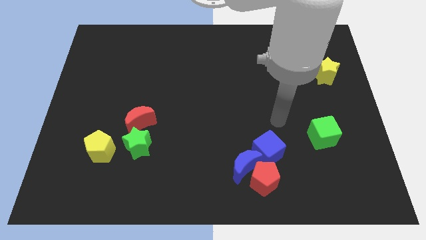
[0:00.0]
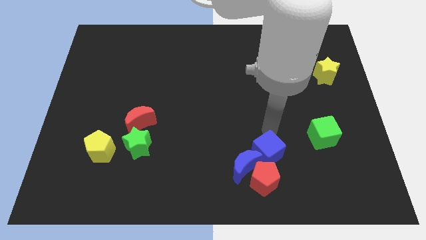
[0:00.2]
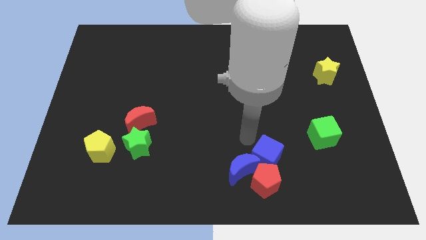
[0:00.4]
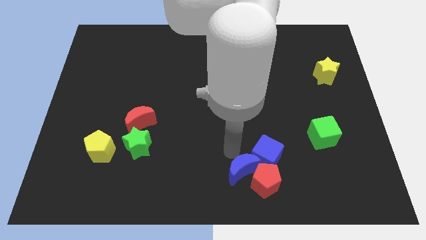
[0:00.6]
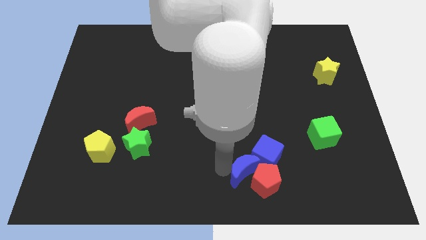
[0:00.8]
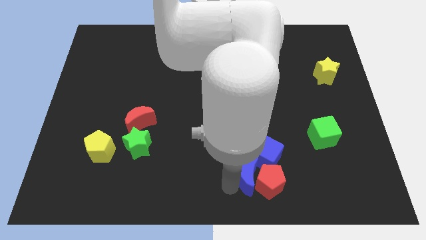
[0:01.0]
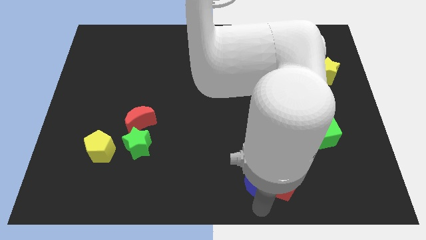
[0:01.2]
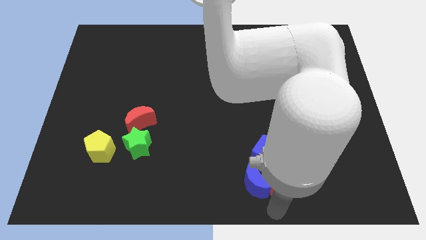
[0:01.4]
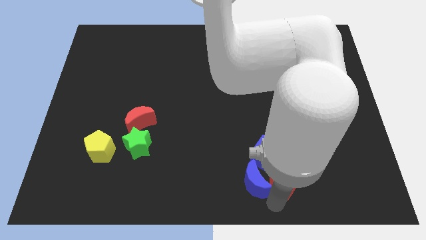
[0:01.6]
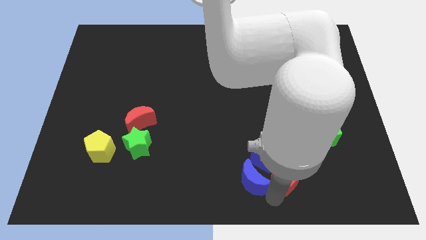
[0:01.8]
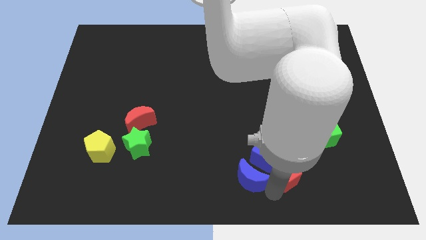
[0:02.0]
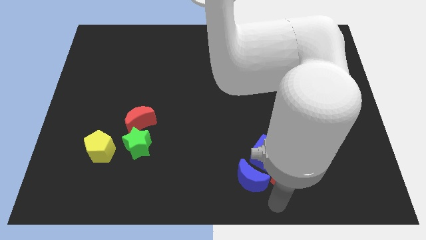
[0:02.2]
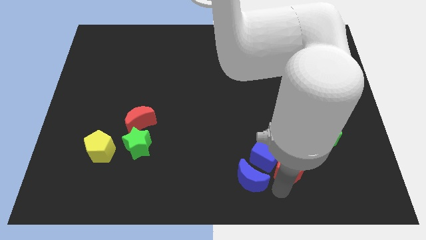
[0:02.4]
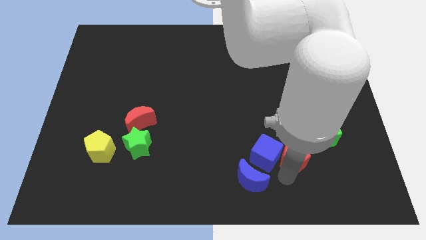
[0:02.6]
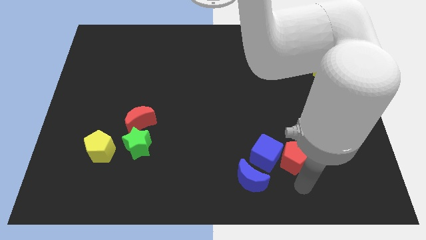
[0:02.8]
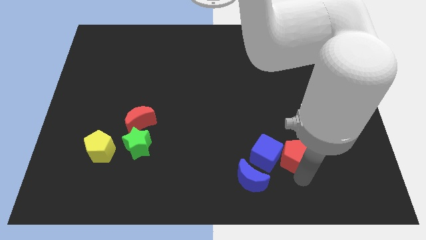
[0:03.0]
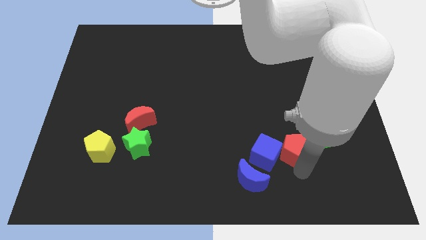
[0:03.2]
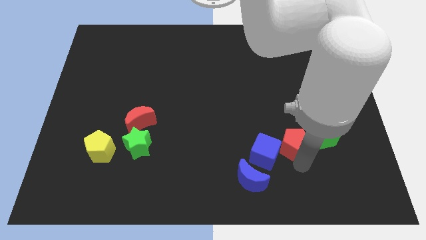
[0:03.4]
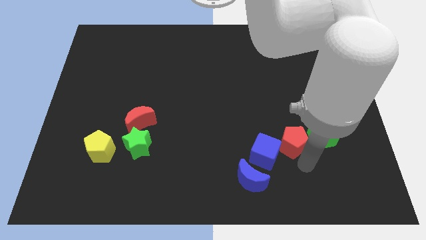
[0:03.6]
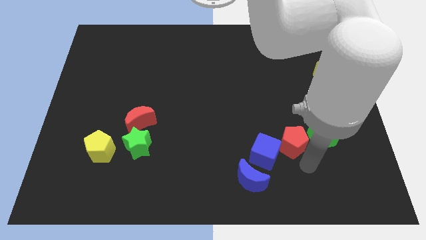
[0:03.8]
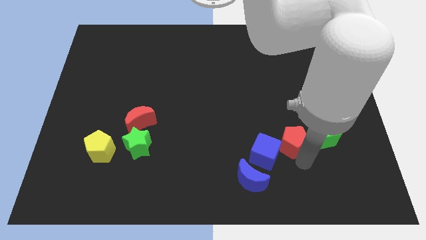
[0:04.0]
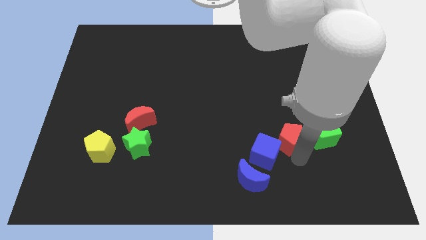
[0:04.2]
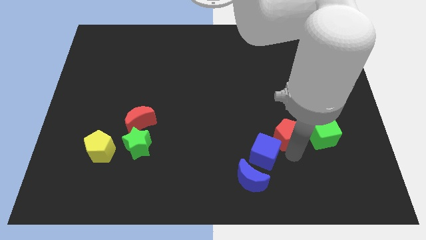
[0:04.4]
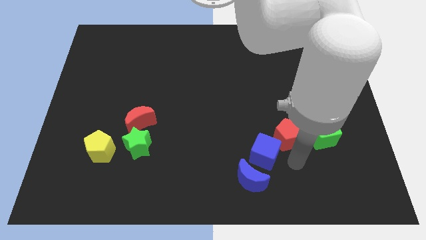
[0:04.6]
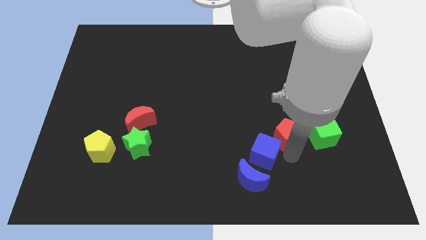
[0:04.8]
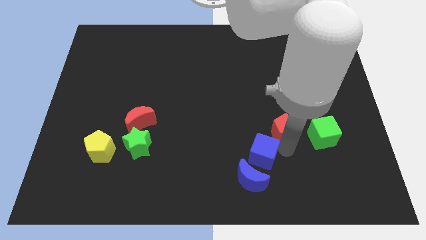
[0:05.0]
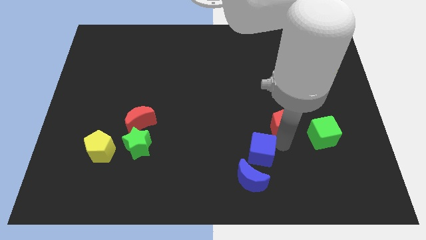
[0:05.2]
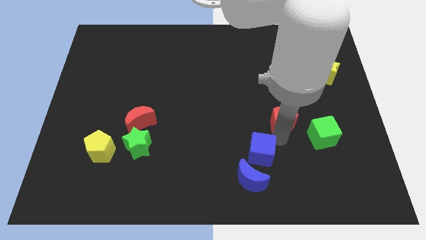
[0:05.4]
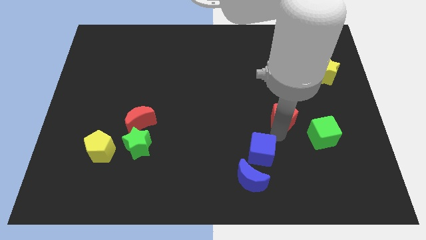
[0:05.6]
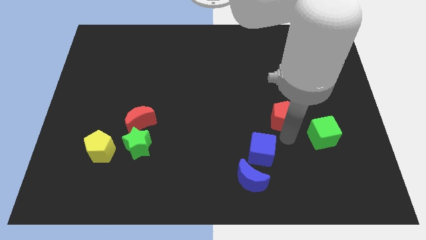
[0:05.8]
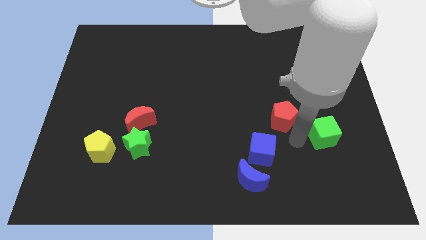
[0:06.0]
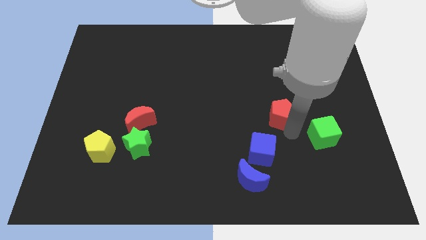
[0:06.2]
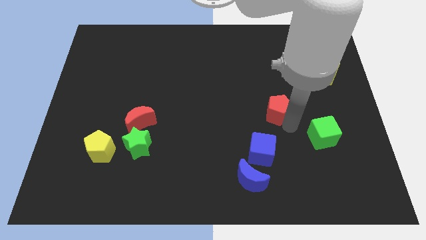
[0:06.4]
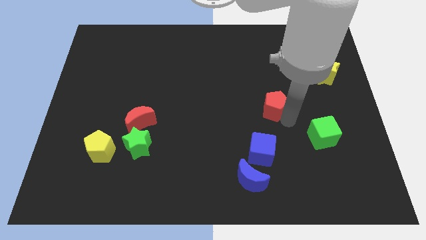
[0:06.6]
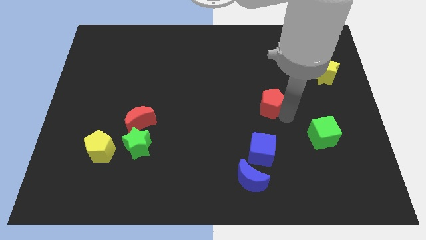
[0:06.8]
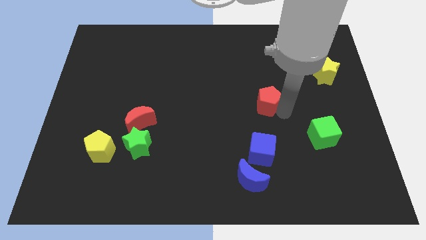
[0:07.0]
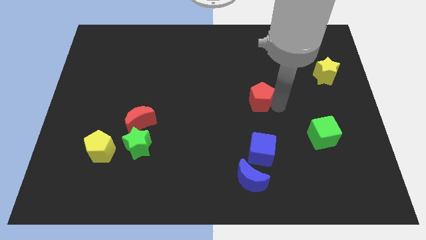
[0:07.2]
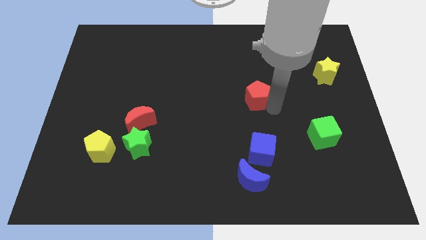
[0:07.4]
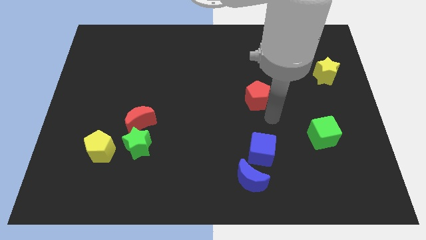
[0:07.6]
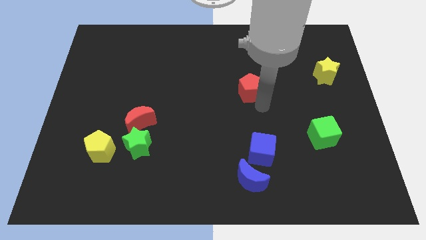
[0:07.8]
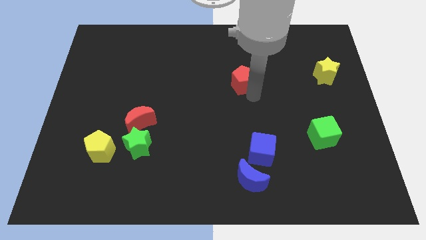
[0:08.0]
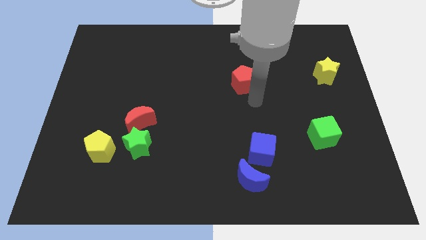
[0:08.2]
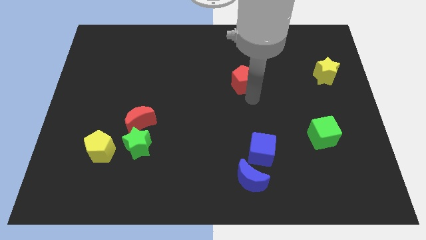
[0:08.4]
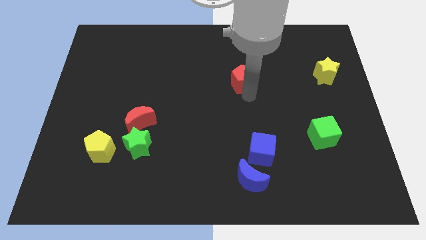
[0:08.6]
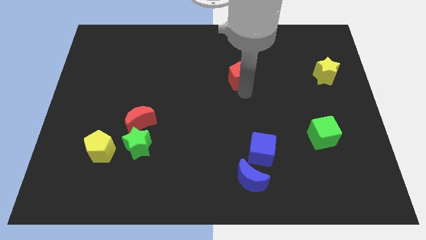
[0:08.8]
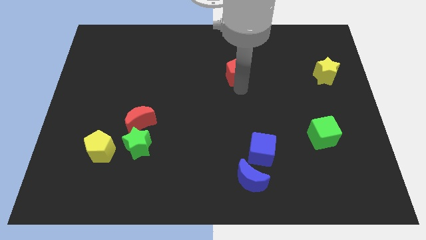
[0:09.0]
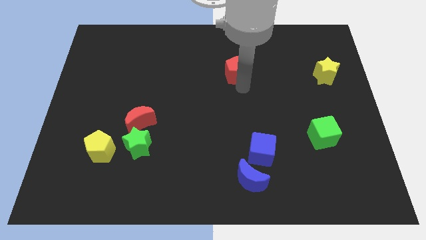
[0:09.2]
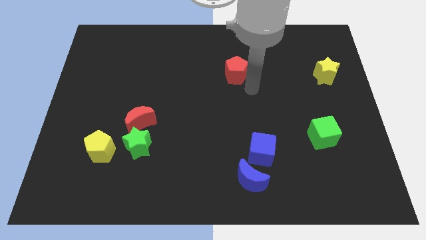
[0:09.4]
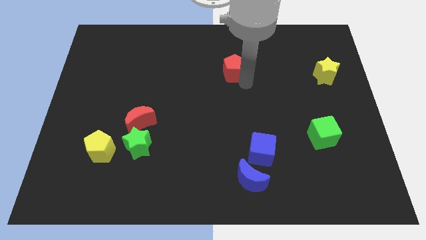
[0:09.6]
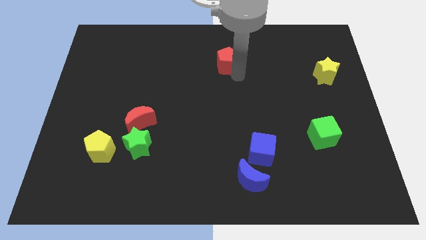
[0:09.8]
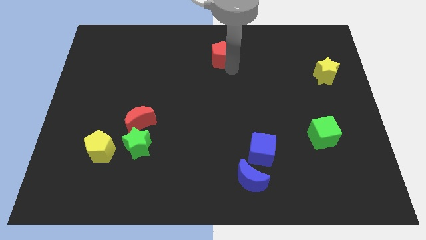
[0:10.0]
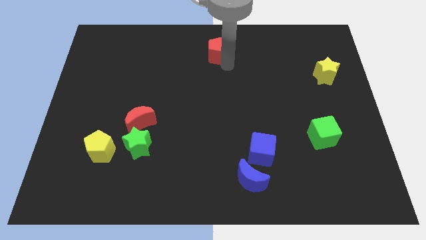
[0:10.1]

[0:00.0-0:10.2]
move the red pentagon to the top

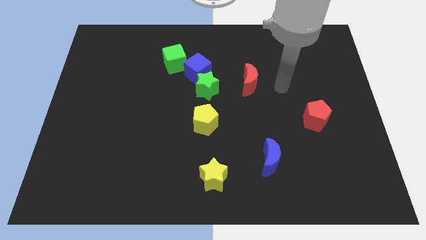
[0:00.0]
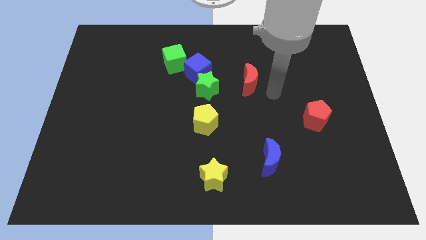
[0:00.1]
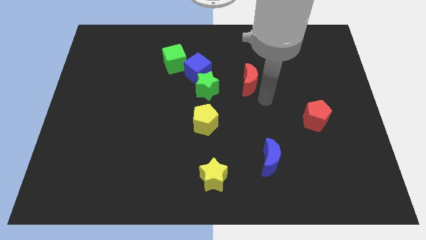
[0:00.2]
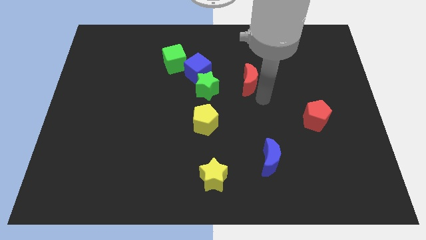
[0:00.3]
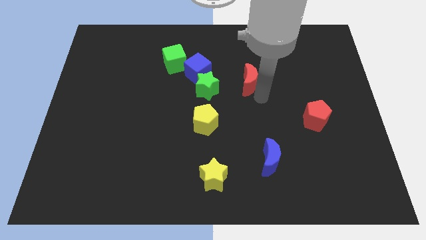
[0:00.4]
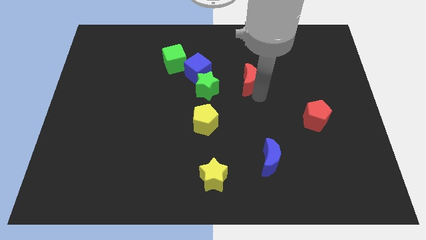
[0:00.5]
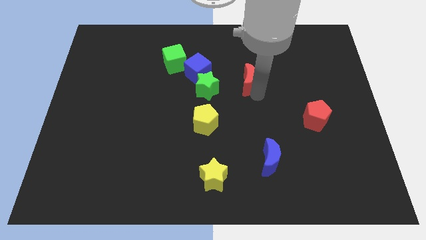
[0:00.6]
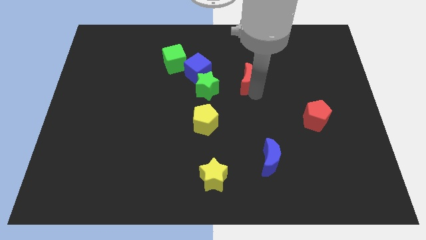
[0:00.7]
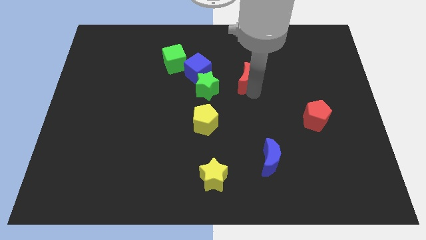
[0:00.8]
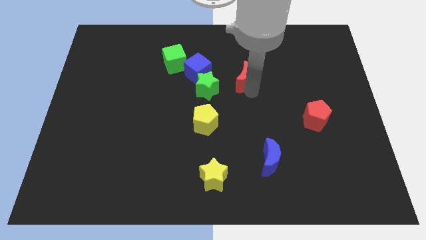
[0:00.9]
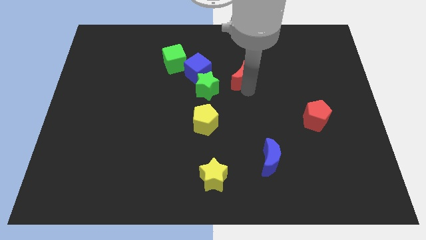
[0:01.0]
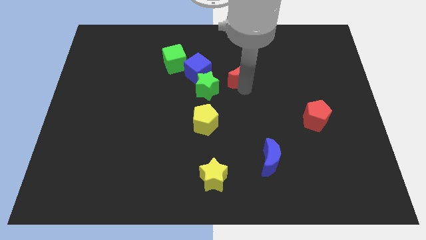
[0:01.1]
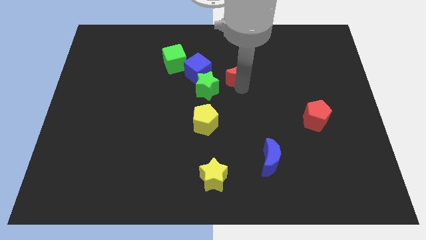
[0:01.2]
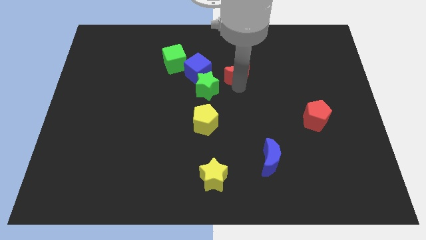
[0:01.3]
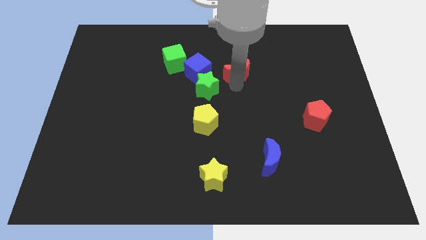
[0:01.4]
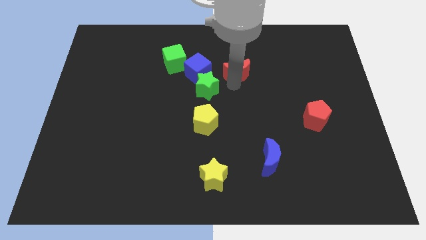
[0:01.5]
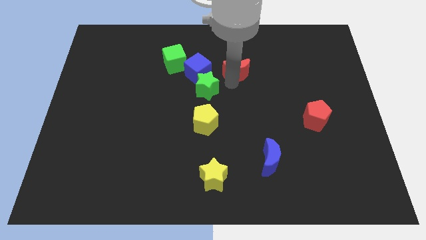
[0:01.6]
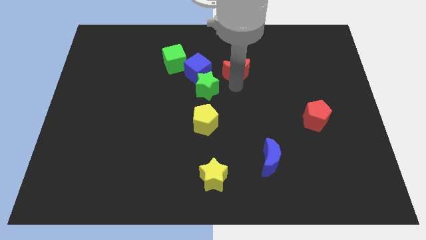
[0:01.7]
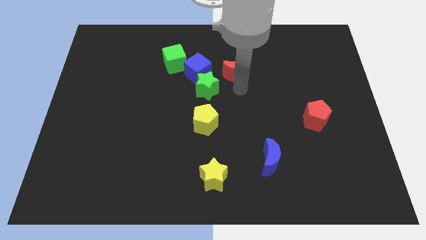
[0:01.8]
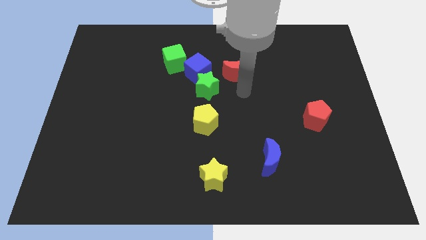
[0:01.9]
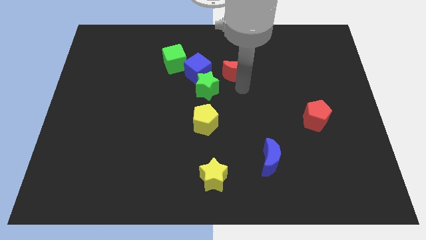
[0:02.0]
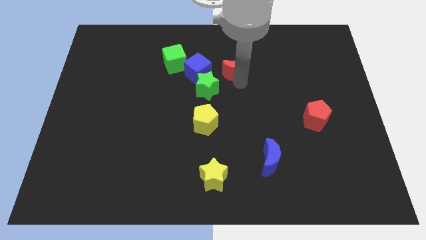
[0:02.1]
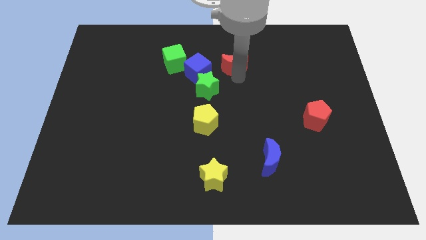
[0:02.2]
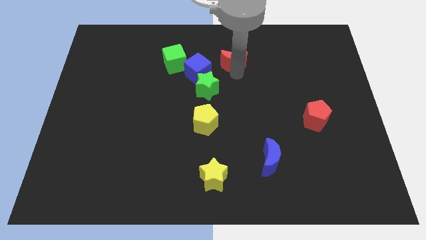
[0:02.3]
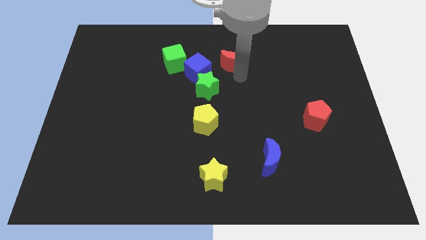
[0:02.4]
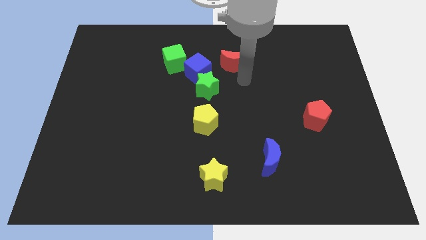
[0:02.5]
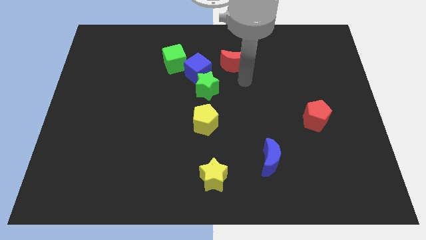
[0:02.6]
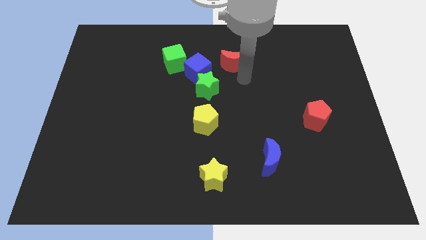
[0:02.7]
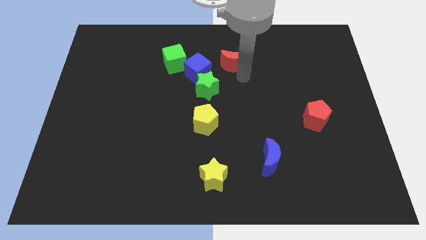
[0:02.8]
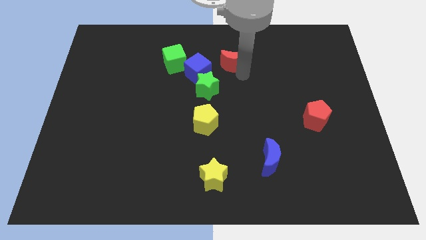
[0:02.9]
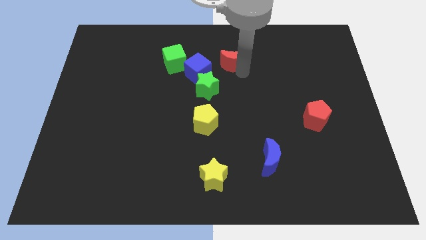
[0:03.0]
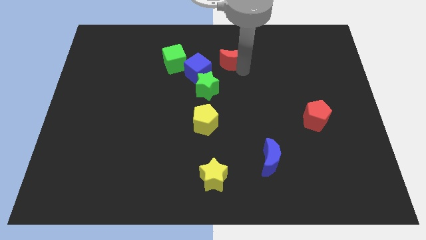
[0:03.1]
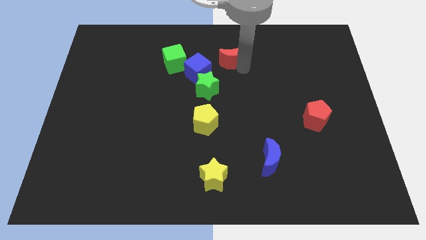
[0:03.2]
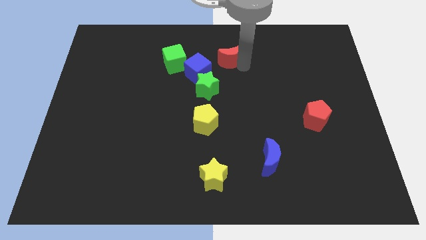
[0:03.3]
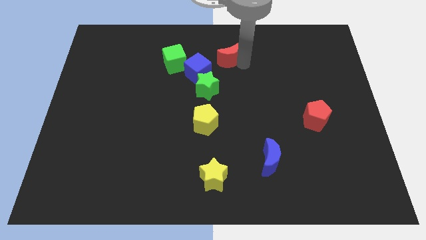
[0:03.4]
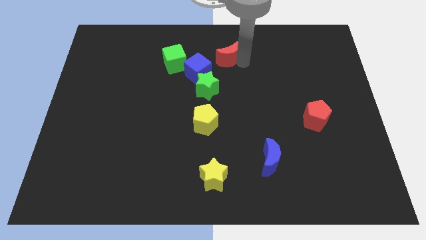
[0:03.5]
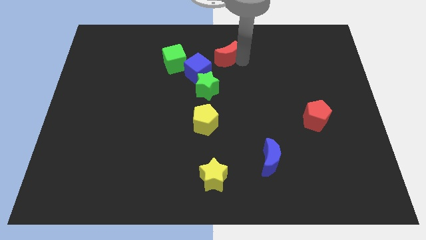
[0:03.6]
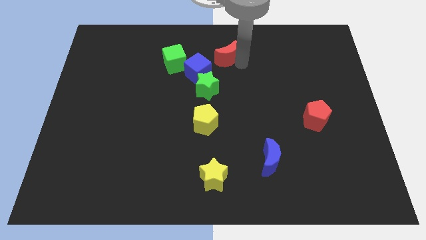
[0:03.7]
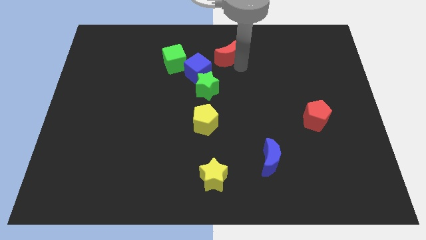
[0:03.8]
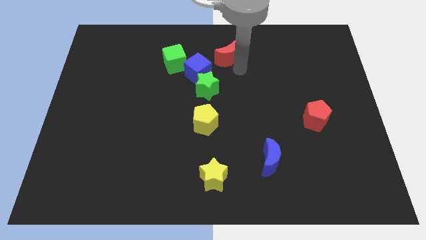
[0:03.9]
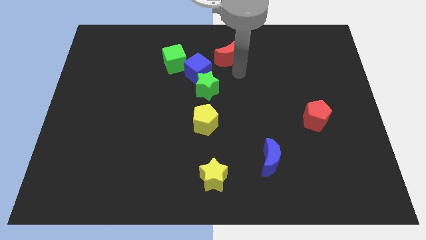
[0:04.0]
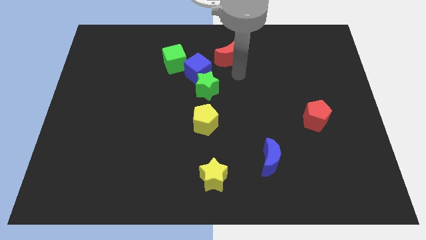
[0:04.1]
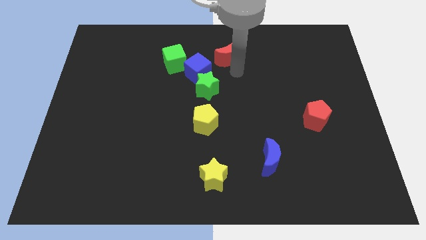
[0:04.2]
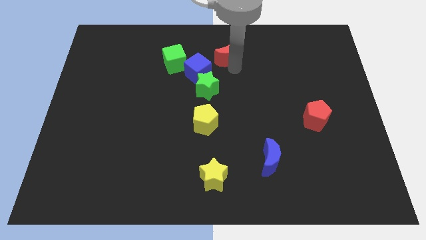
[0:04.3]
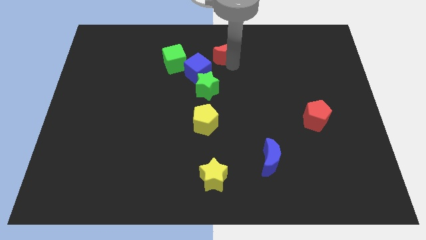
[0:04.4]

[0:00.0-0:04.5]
move the red moon to the top
